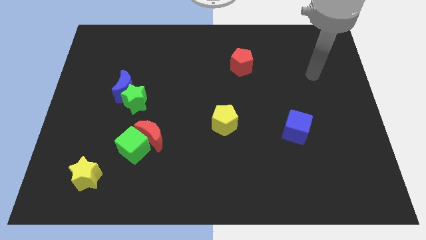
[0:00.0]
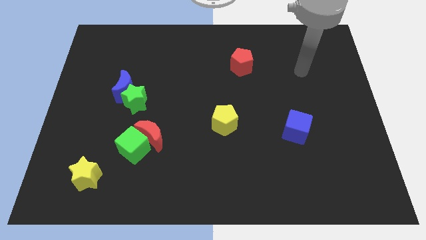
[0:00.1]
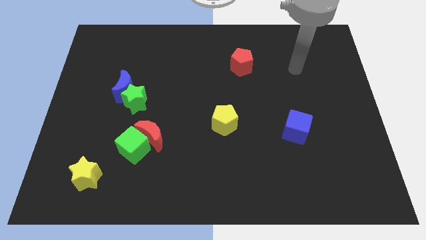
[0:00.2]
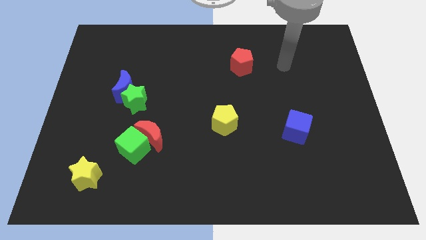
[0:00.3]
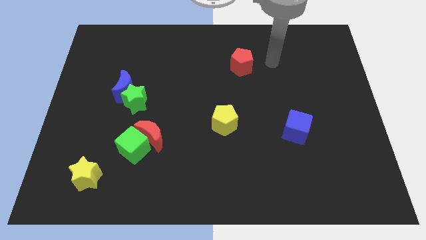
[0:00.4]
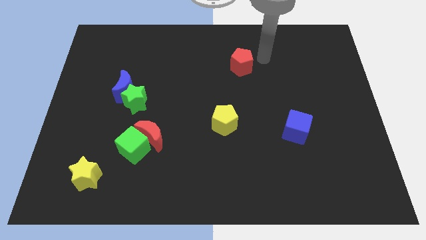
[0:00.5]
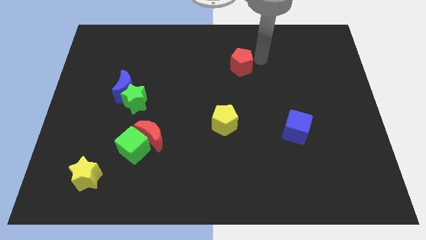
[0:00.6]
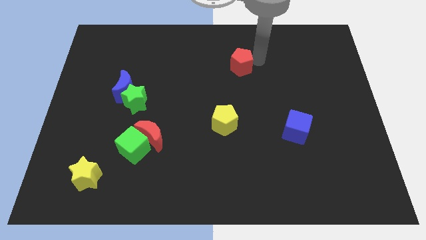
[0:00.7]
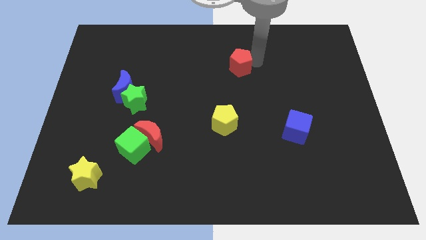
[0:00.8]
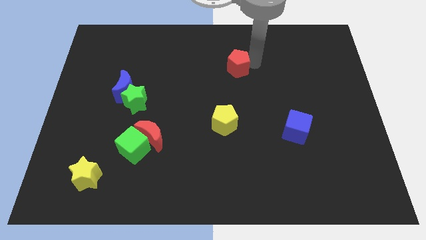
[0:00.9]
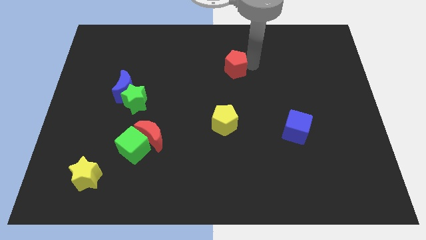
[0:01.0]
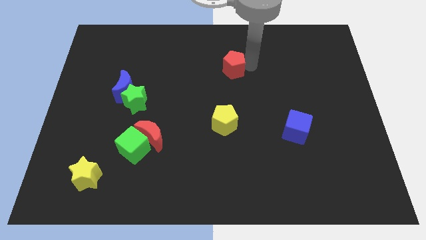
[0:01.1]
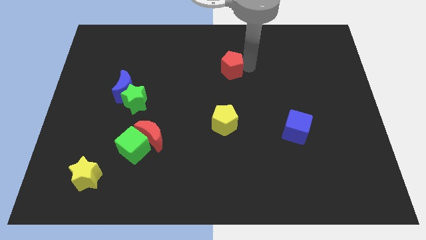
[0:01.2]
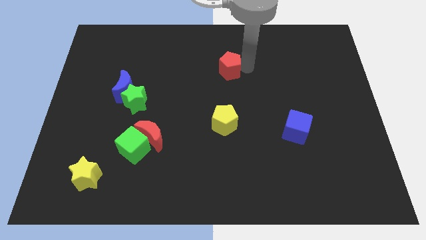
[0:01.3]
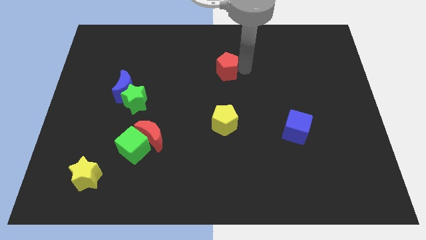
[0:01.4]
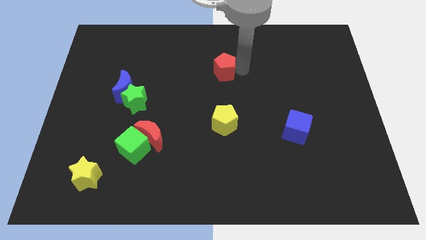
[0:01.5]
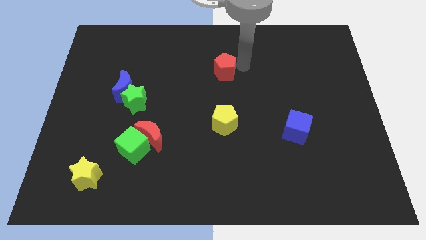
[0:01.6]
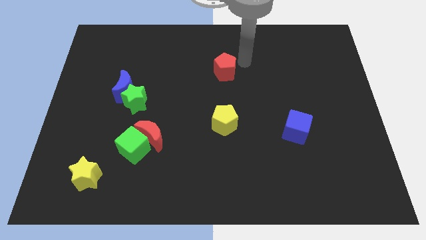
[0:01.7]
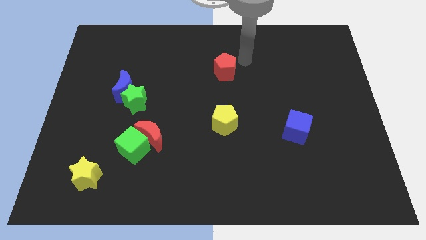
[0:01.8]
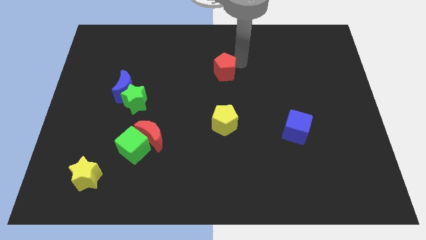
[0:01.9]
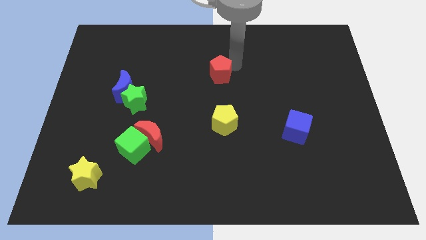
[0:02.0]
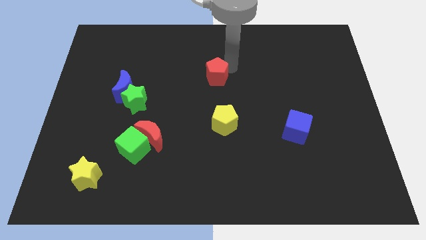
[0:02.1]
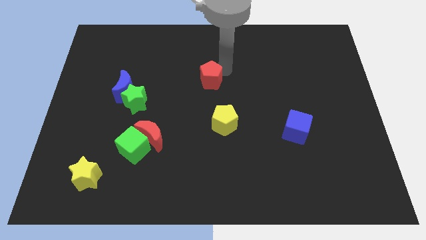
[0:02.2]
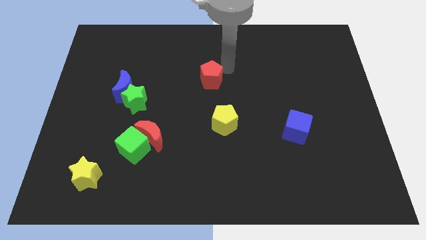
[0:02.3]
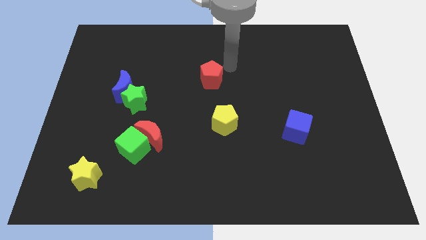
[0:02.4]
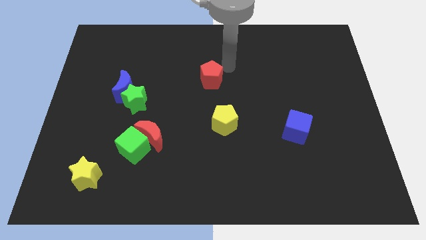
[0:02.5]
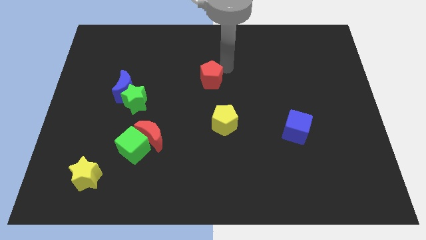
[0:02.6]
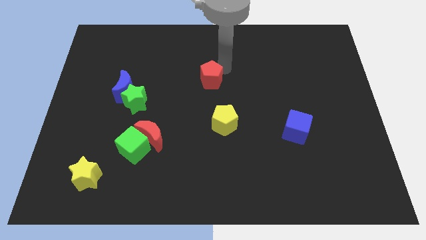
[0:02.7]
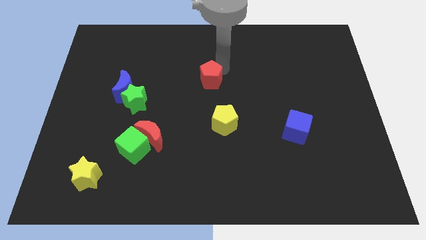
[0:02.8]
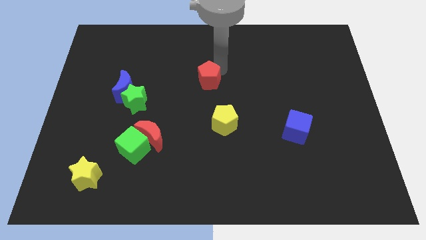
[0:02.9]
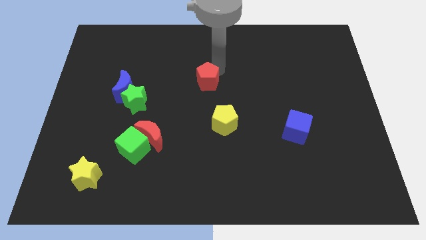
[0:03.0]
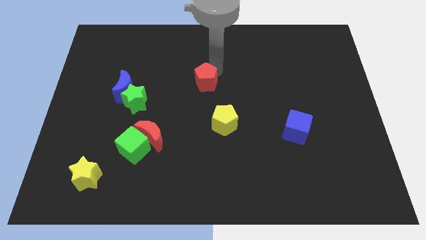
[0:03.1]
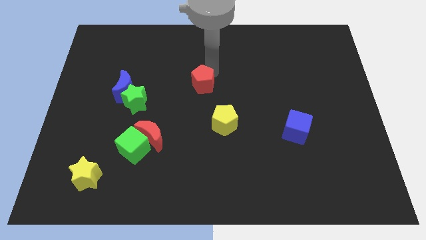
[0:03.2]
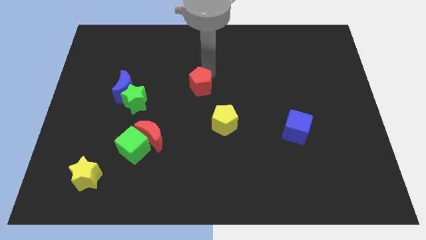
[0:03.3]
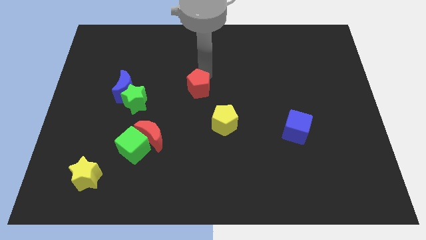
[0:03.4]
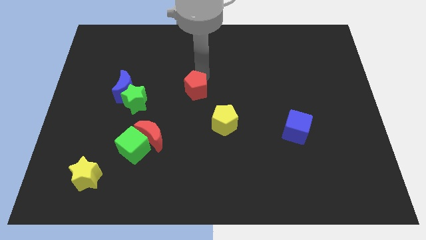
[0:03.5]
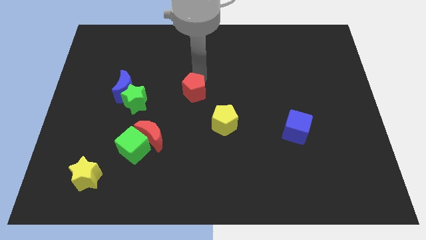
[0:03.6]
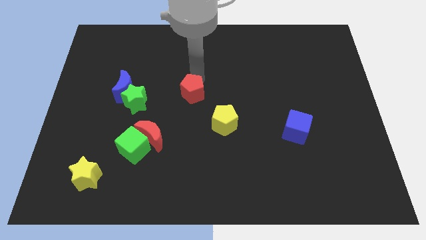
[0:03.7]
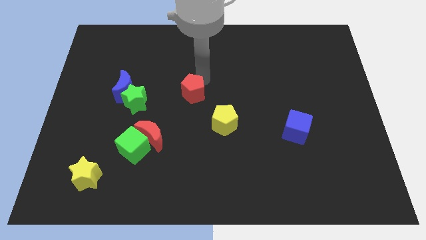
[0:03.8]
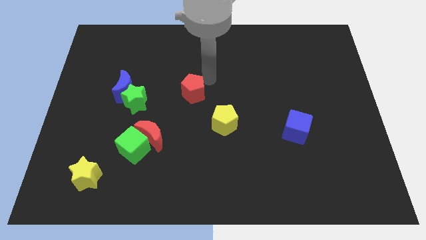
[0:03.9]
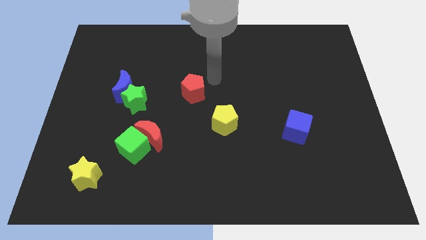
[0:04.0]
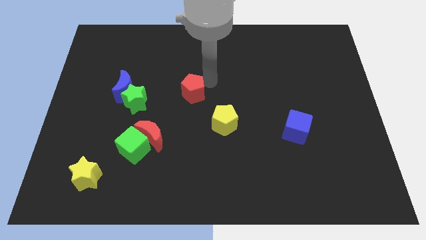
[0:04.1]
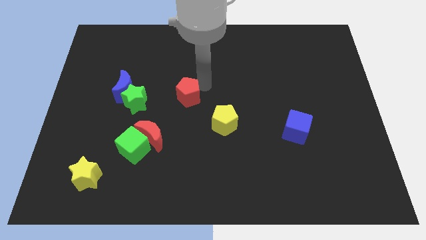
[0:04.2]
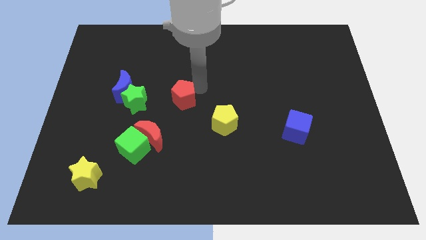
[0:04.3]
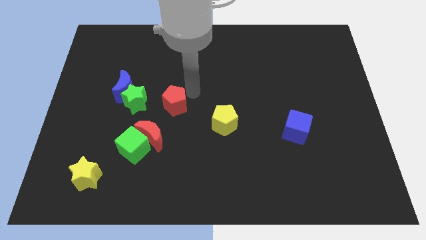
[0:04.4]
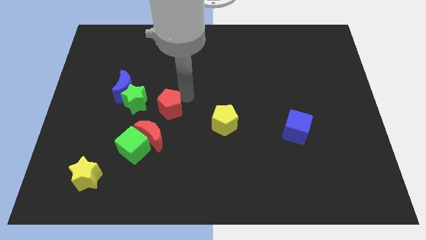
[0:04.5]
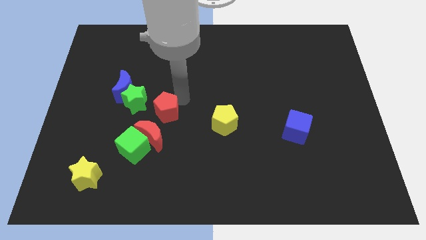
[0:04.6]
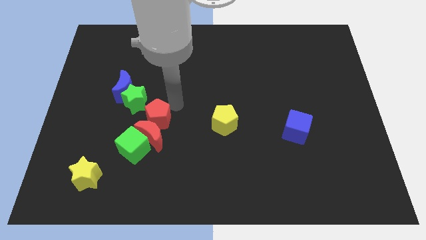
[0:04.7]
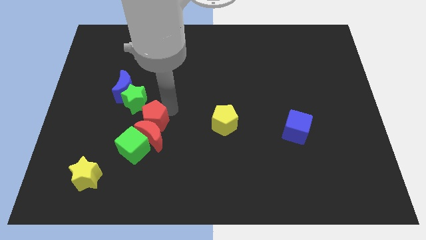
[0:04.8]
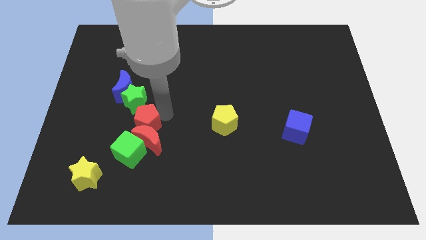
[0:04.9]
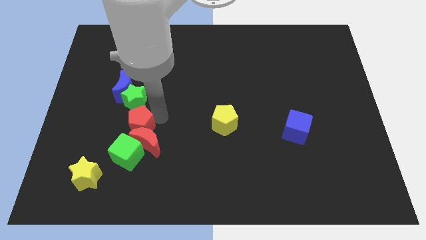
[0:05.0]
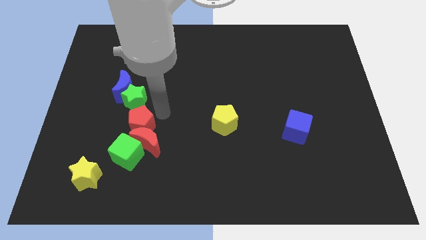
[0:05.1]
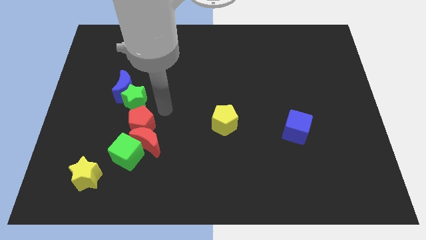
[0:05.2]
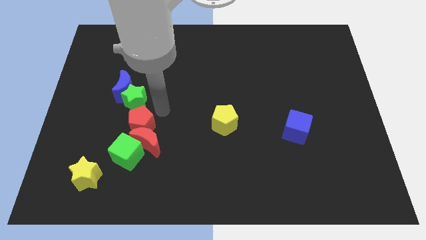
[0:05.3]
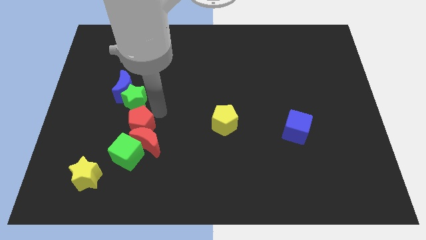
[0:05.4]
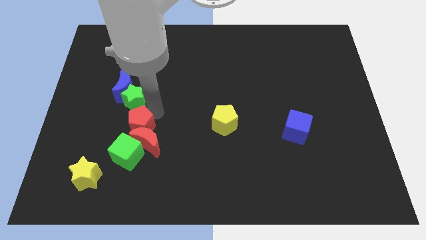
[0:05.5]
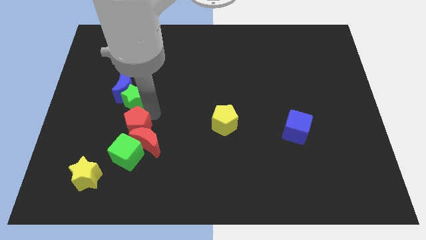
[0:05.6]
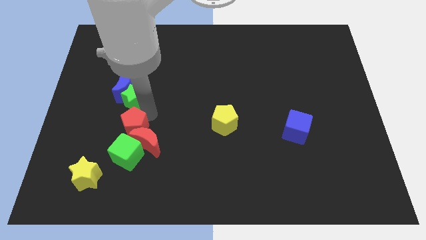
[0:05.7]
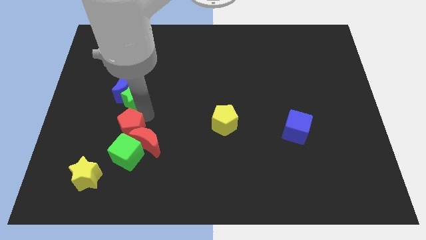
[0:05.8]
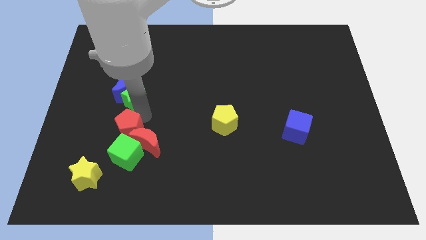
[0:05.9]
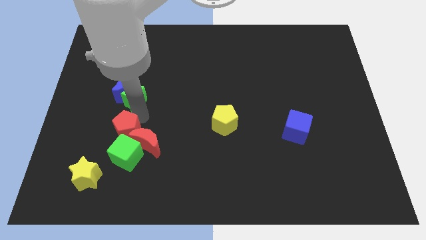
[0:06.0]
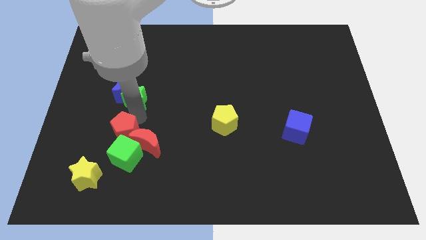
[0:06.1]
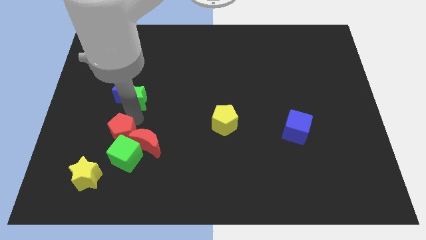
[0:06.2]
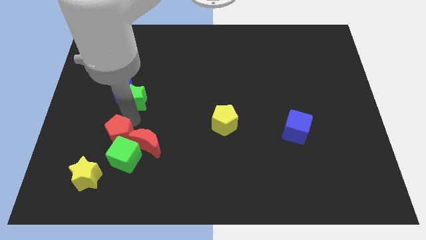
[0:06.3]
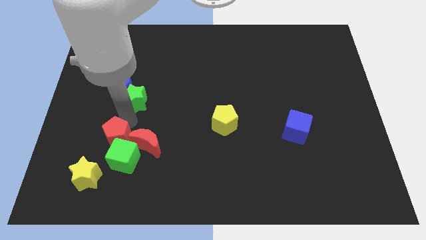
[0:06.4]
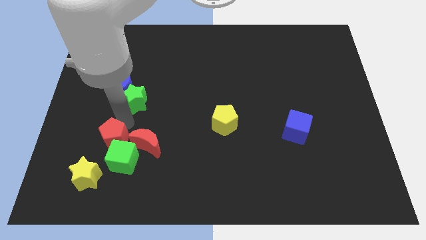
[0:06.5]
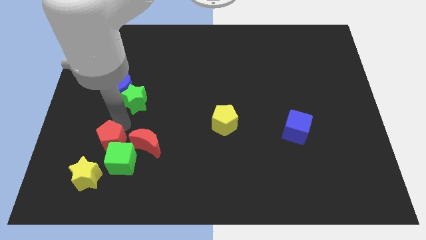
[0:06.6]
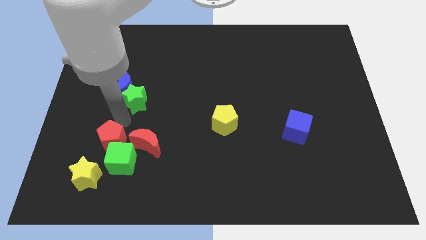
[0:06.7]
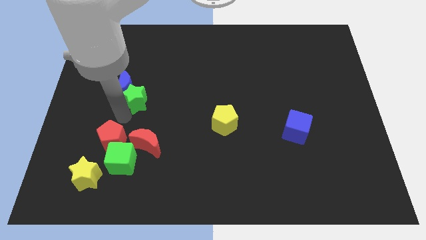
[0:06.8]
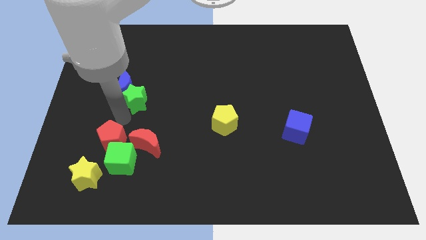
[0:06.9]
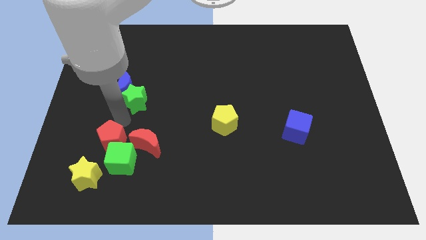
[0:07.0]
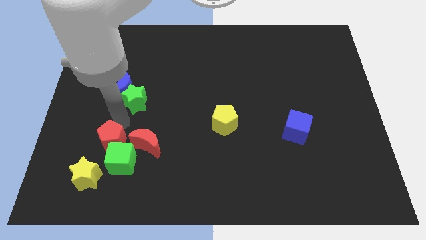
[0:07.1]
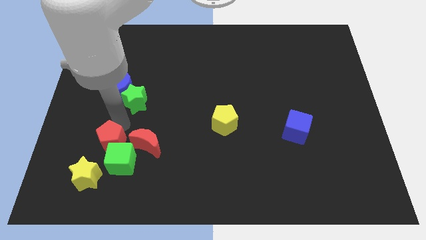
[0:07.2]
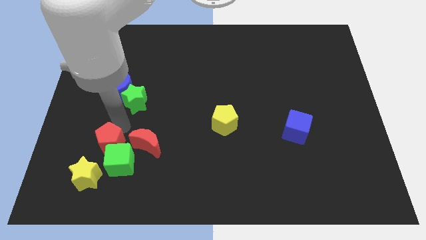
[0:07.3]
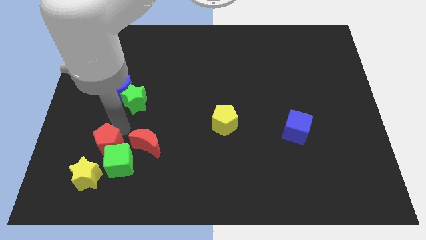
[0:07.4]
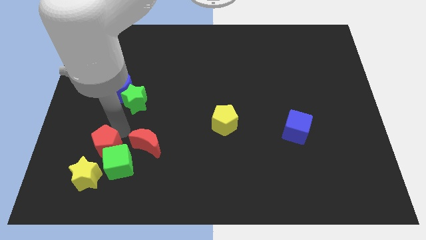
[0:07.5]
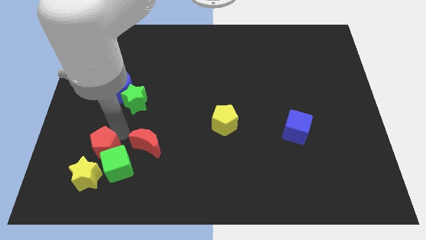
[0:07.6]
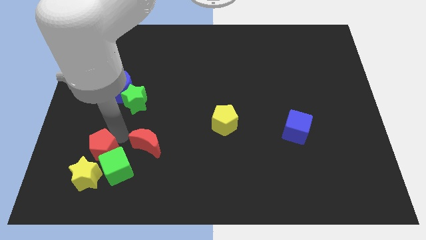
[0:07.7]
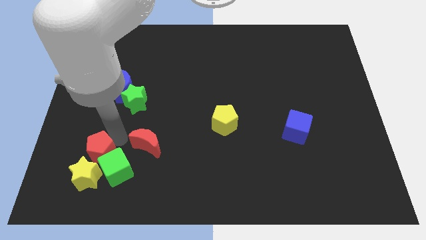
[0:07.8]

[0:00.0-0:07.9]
slide the red pentagon close to the yellow star
